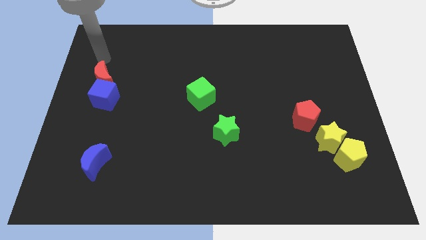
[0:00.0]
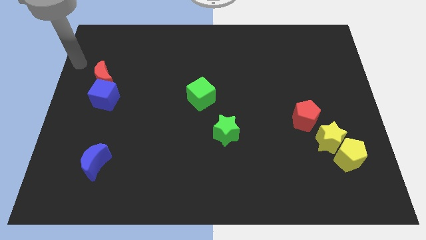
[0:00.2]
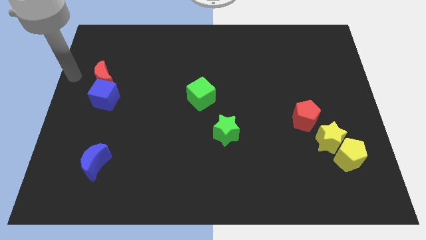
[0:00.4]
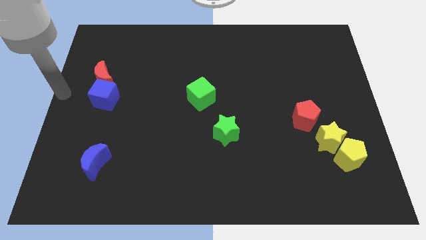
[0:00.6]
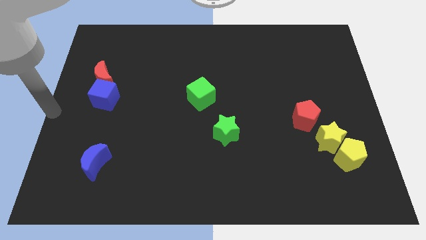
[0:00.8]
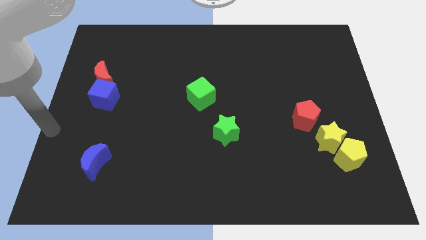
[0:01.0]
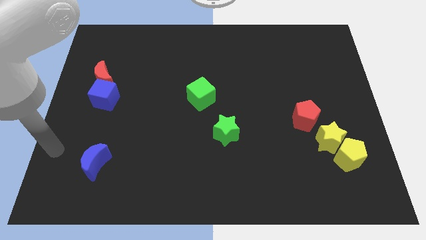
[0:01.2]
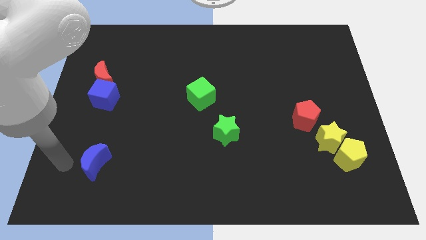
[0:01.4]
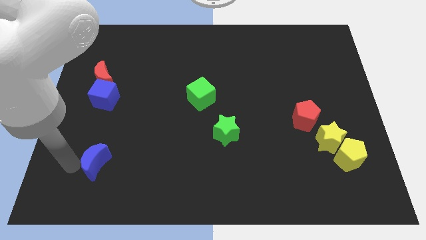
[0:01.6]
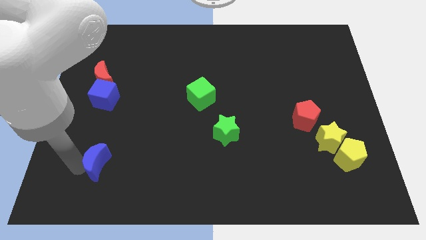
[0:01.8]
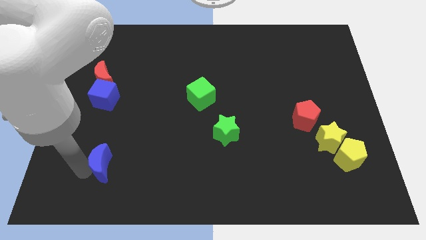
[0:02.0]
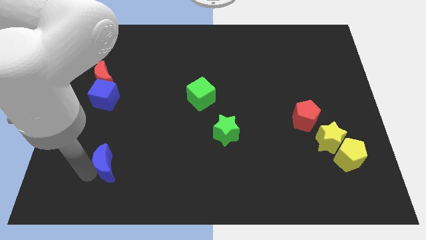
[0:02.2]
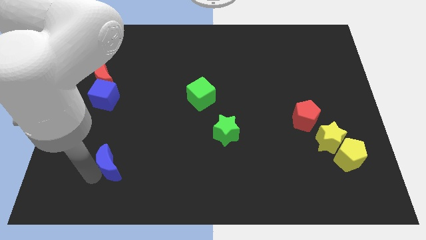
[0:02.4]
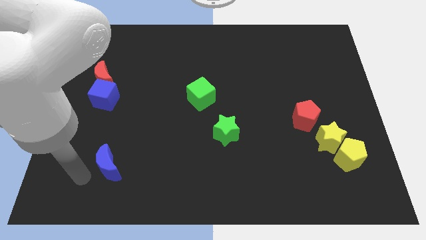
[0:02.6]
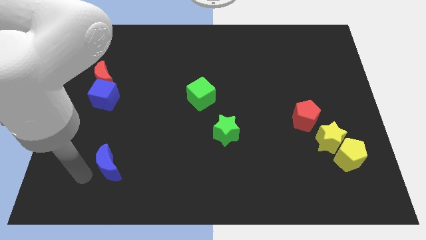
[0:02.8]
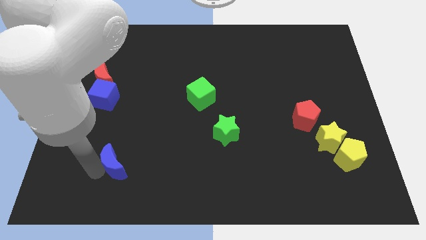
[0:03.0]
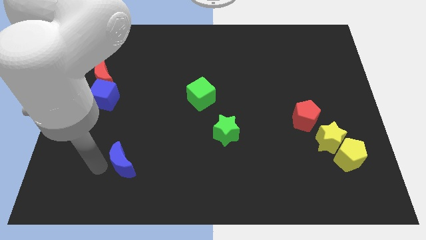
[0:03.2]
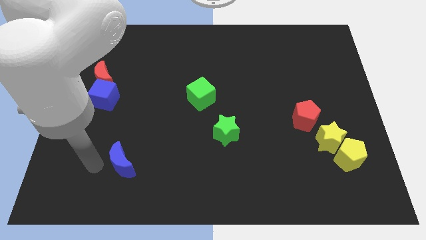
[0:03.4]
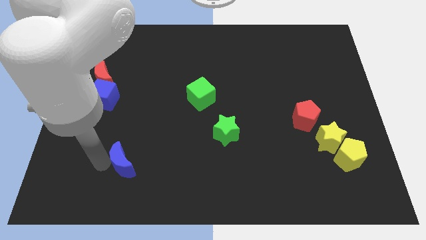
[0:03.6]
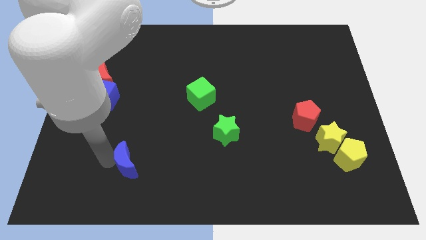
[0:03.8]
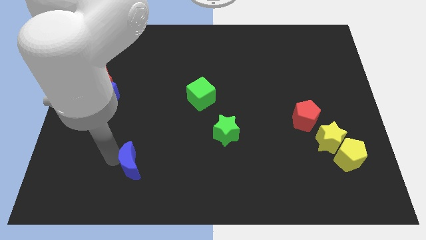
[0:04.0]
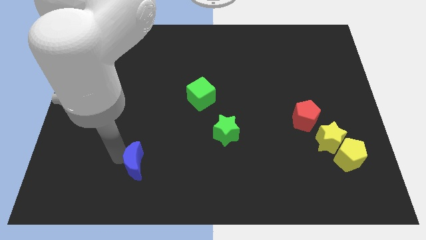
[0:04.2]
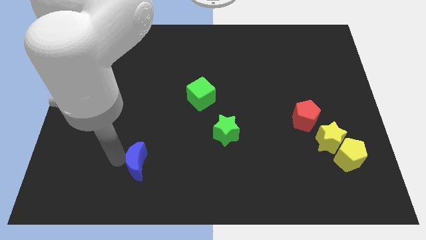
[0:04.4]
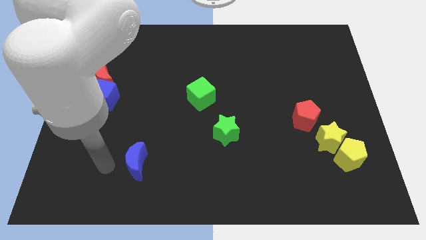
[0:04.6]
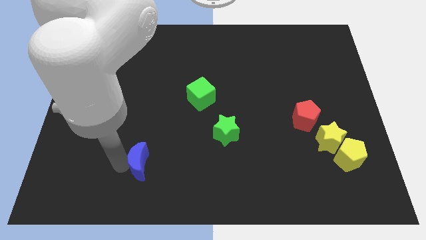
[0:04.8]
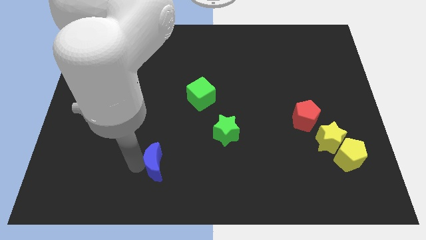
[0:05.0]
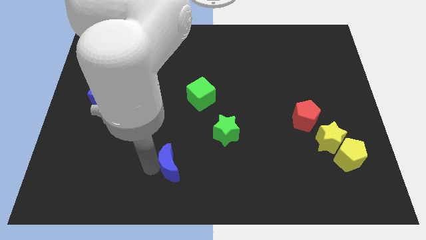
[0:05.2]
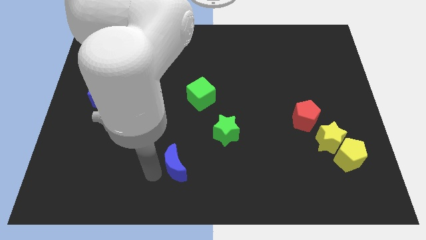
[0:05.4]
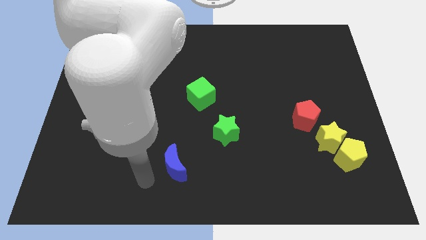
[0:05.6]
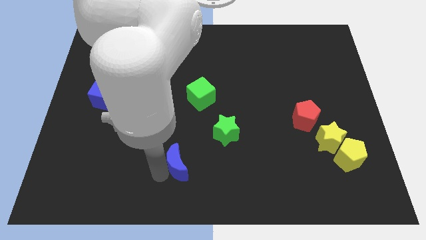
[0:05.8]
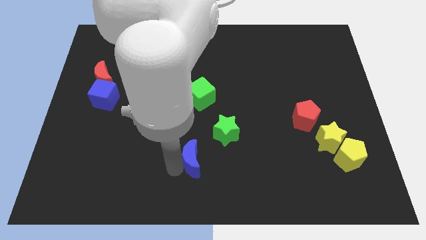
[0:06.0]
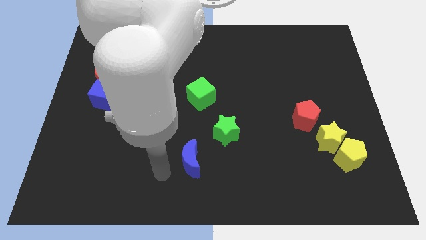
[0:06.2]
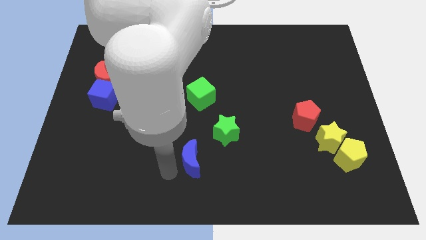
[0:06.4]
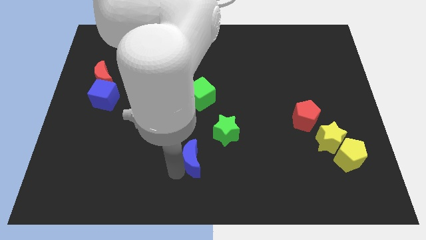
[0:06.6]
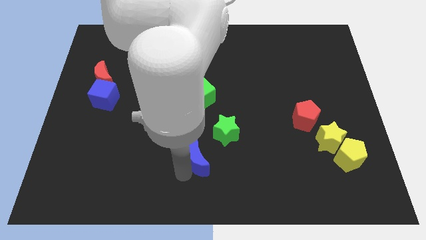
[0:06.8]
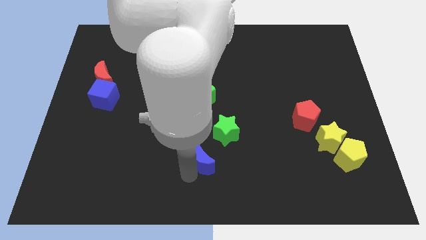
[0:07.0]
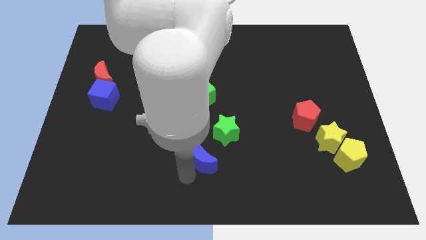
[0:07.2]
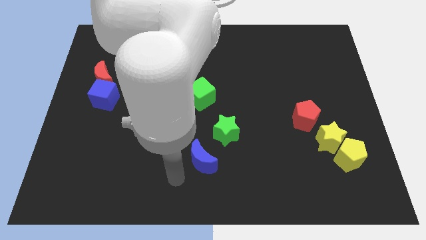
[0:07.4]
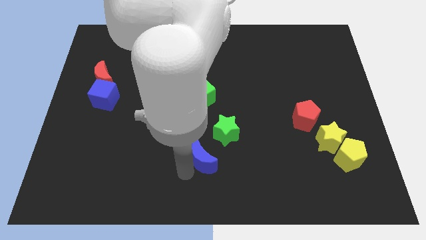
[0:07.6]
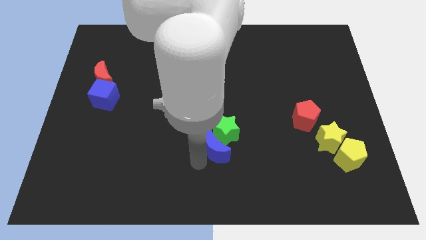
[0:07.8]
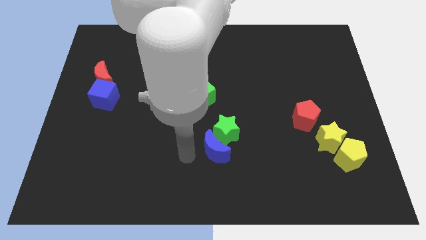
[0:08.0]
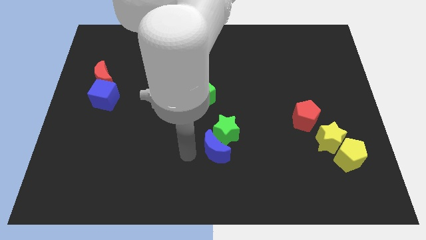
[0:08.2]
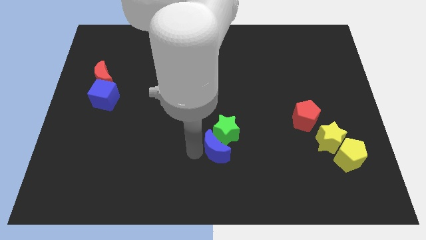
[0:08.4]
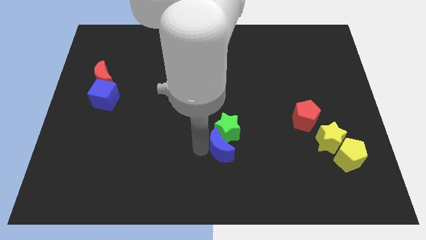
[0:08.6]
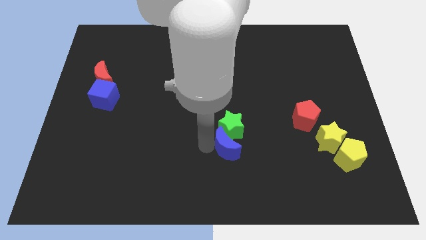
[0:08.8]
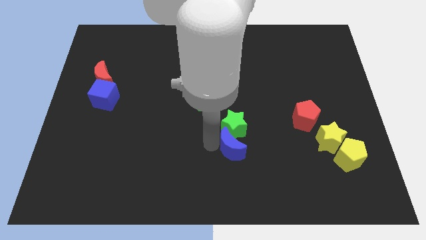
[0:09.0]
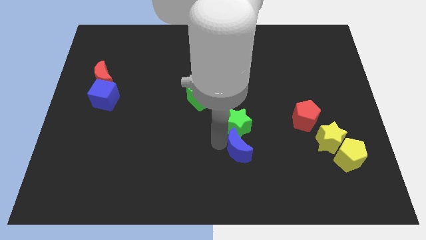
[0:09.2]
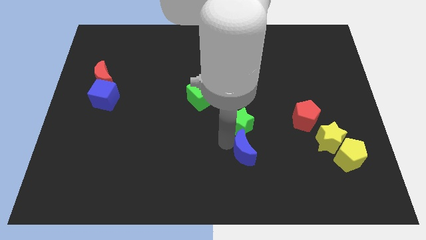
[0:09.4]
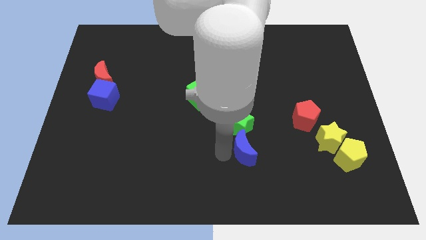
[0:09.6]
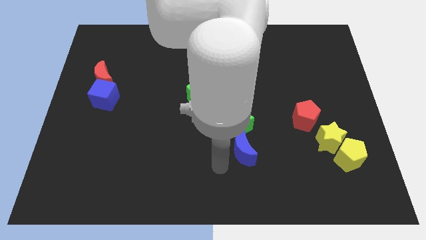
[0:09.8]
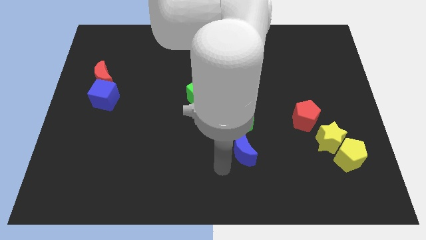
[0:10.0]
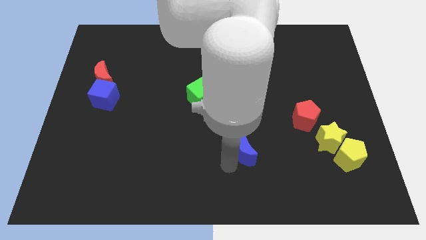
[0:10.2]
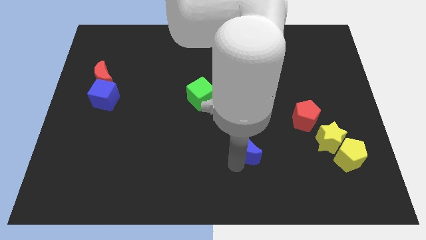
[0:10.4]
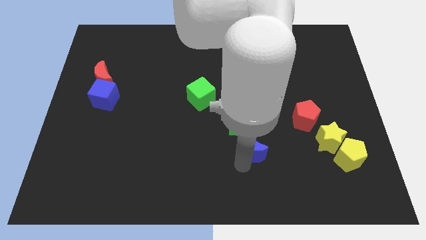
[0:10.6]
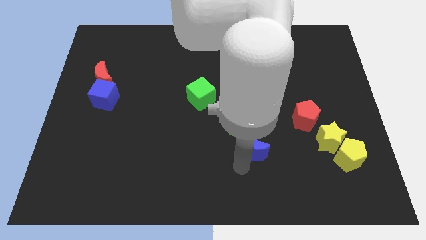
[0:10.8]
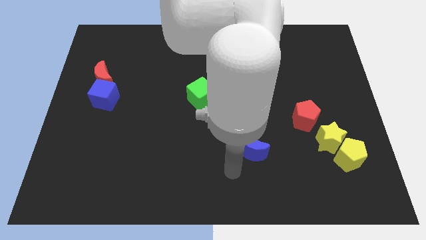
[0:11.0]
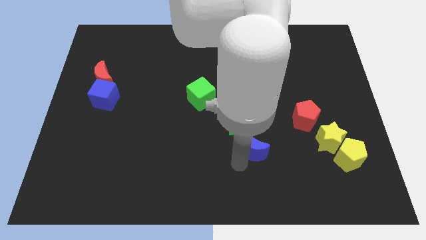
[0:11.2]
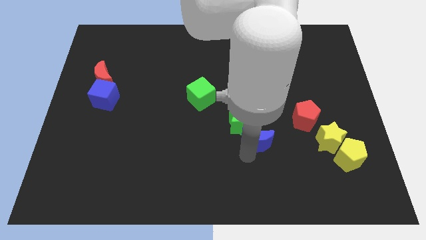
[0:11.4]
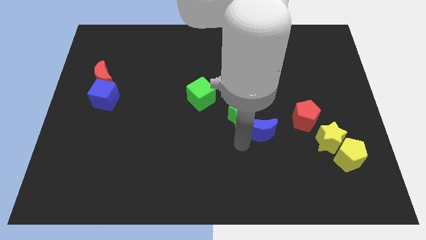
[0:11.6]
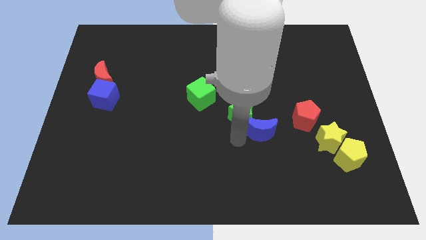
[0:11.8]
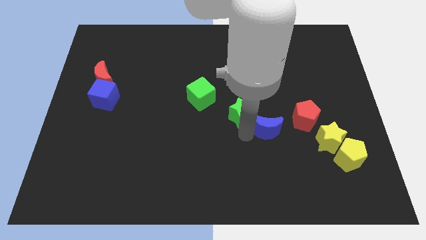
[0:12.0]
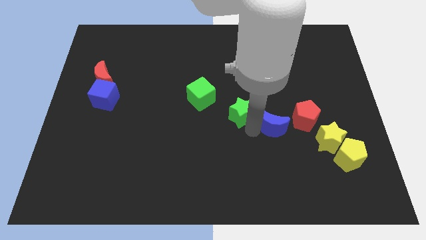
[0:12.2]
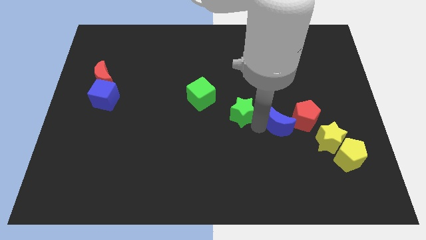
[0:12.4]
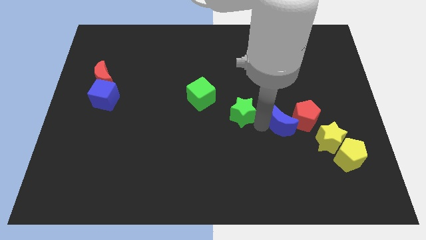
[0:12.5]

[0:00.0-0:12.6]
put the blue moon towards the red pentagon

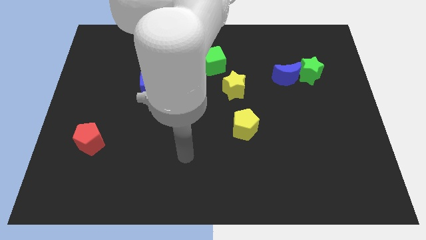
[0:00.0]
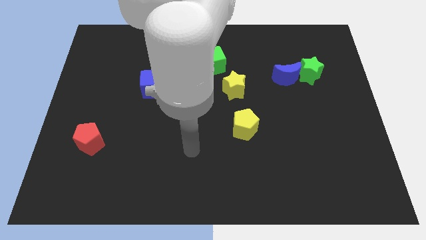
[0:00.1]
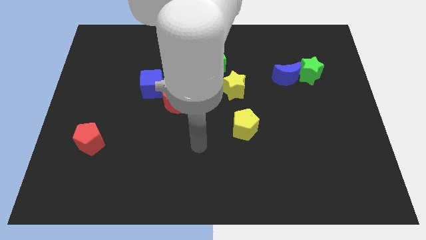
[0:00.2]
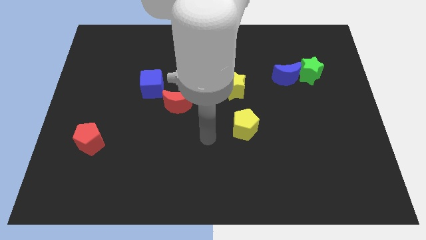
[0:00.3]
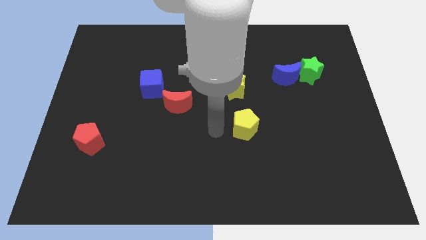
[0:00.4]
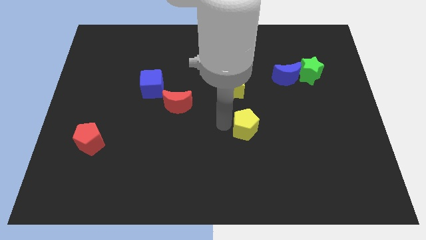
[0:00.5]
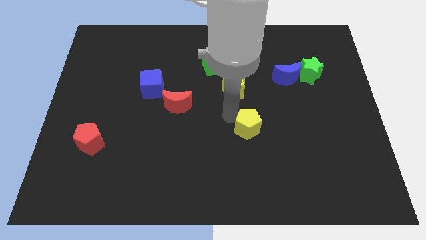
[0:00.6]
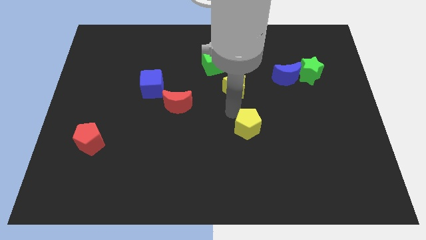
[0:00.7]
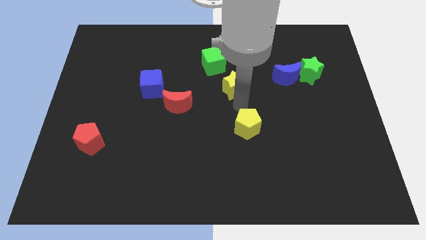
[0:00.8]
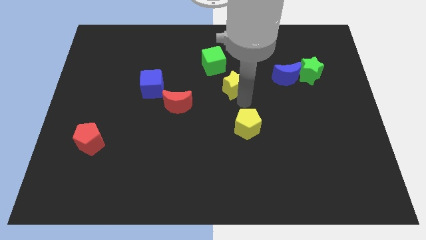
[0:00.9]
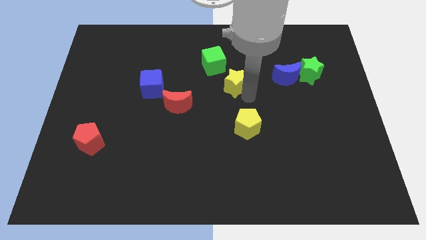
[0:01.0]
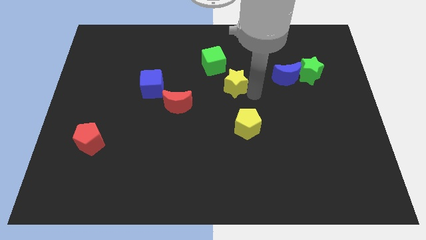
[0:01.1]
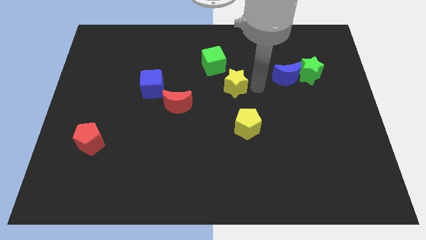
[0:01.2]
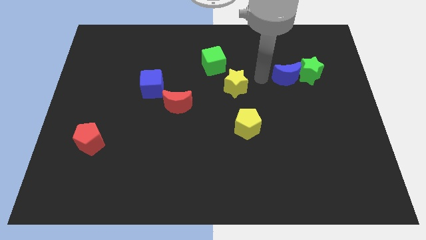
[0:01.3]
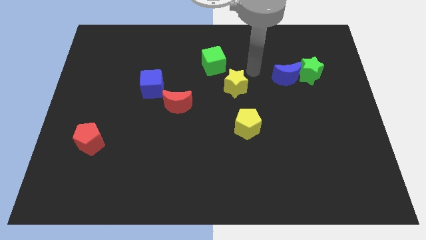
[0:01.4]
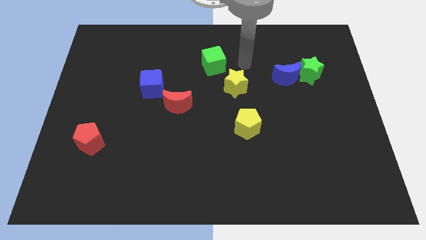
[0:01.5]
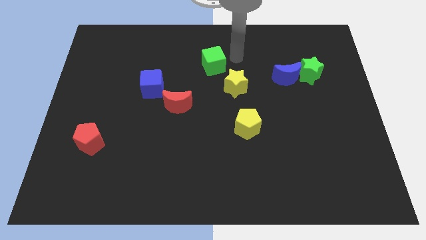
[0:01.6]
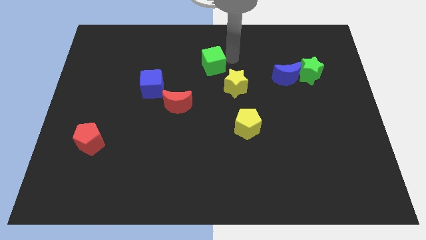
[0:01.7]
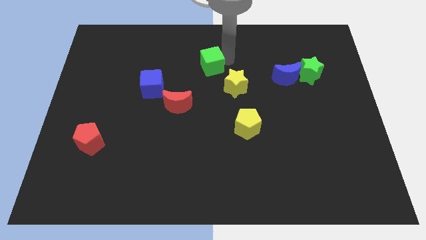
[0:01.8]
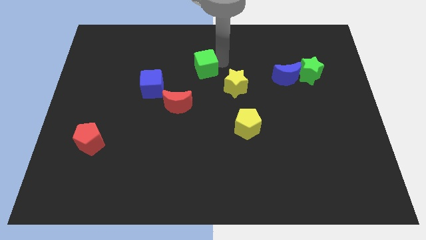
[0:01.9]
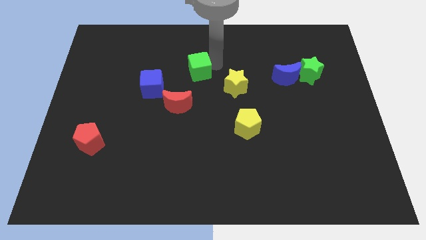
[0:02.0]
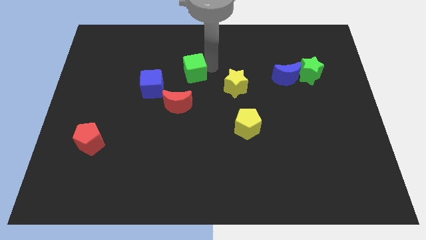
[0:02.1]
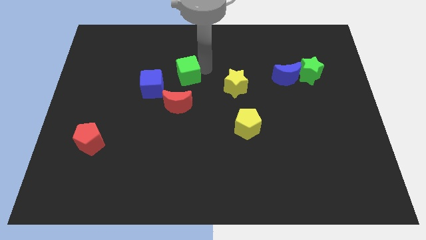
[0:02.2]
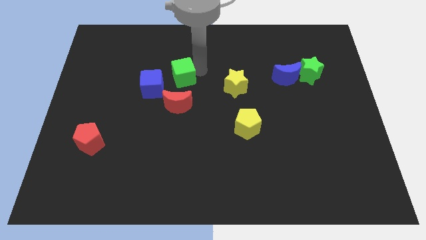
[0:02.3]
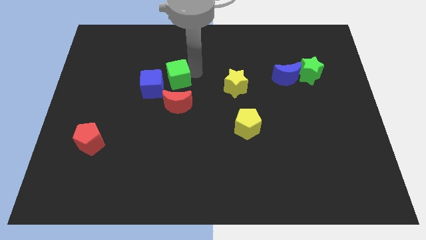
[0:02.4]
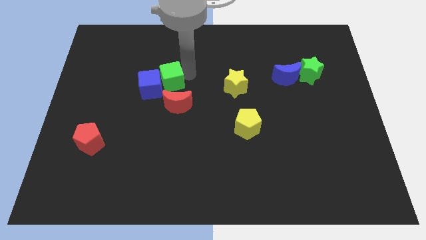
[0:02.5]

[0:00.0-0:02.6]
move the green cube close to the blue cube
